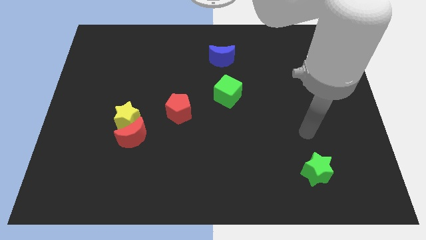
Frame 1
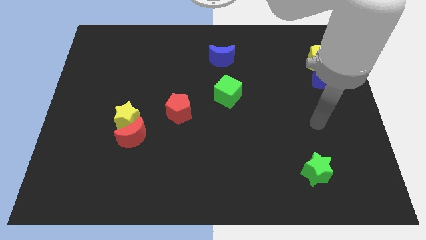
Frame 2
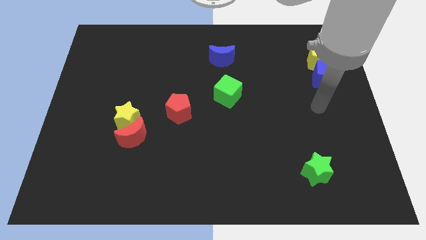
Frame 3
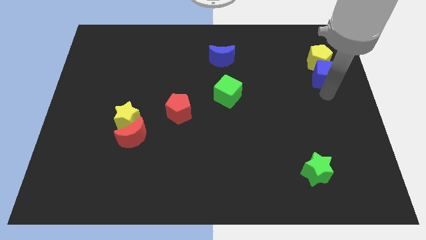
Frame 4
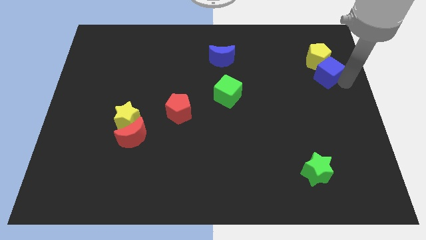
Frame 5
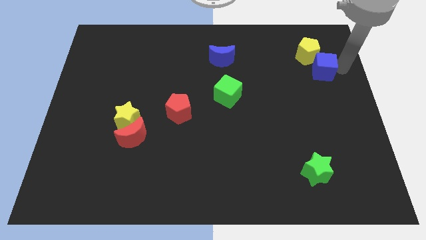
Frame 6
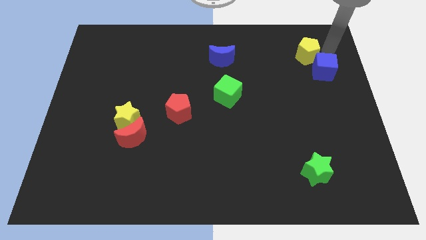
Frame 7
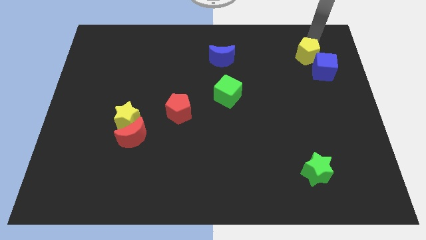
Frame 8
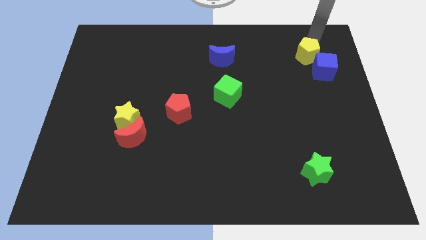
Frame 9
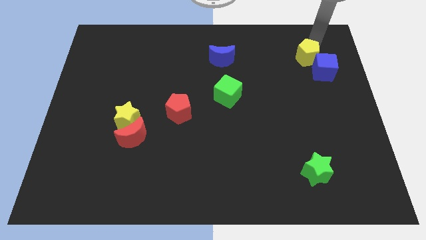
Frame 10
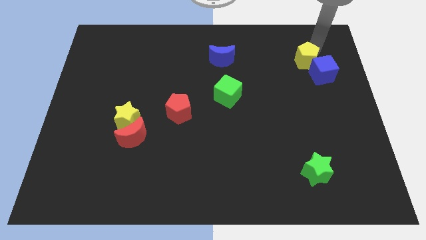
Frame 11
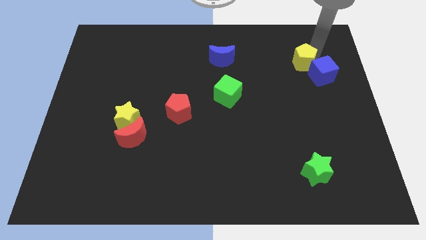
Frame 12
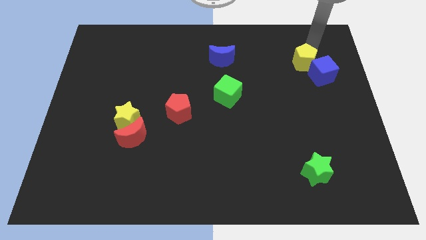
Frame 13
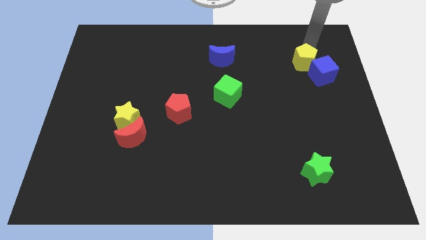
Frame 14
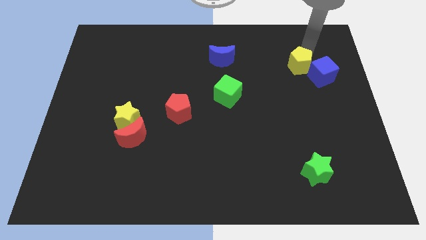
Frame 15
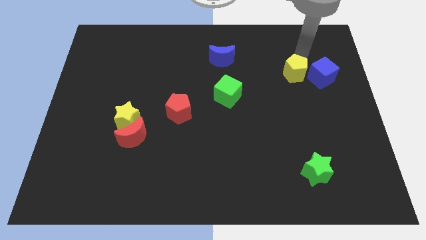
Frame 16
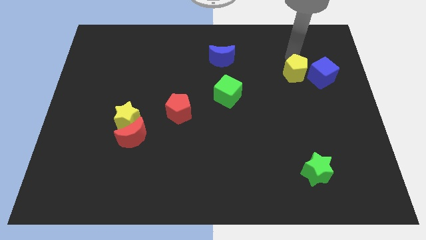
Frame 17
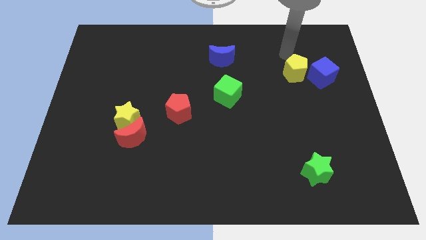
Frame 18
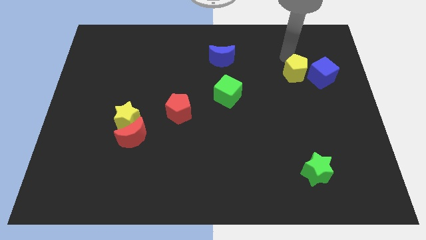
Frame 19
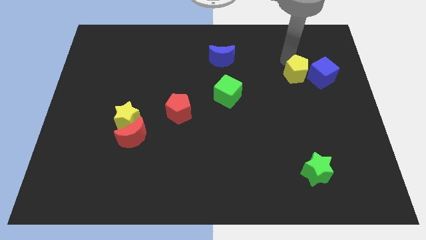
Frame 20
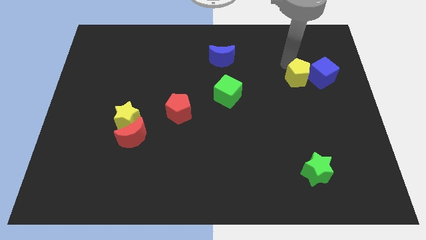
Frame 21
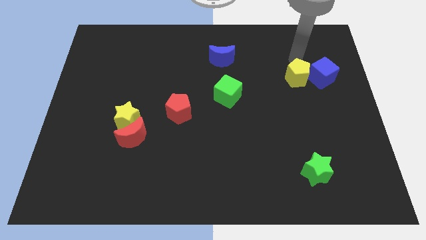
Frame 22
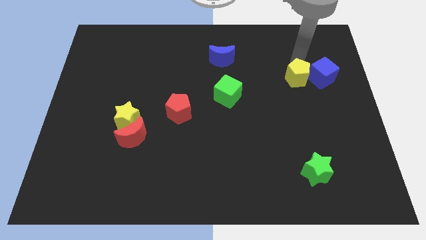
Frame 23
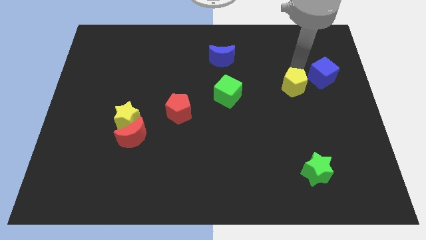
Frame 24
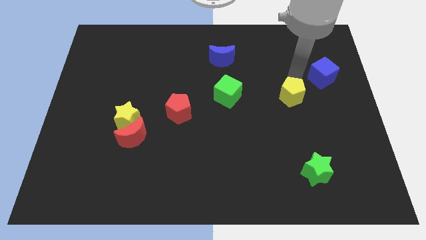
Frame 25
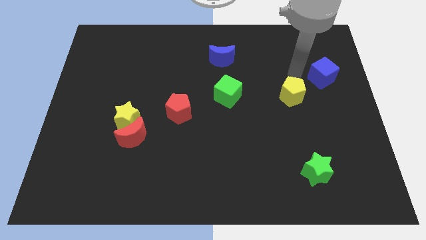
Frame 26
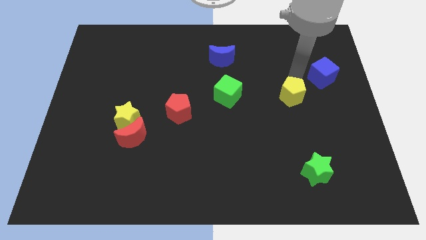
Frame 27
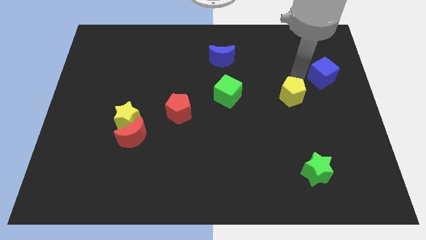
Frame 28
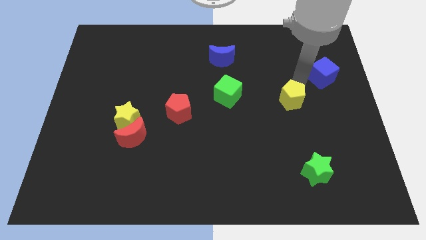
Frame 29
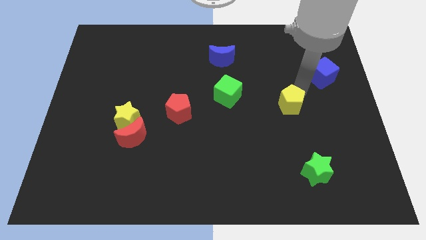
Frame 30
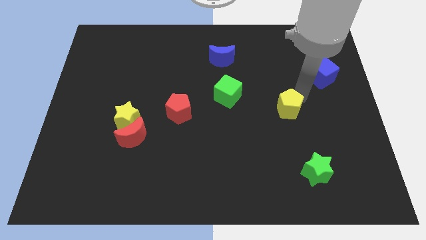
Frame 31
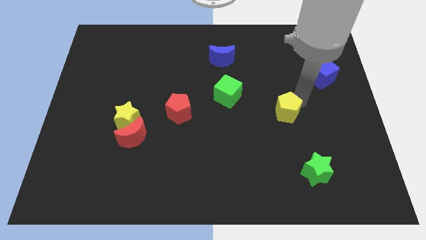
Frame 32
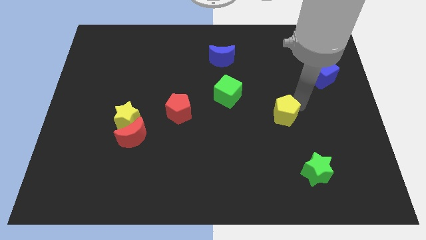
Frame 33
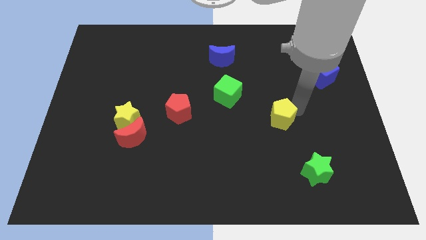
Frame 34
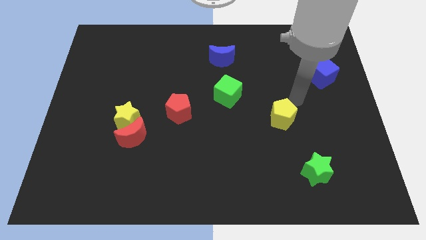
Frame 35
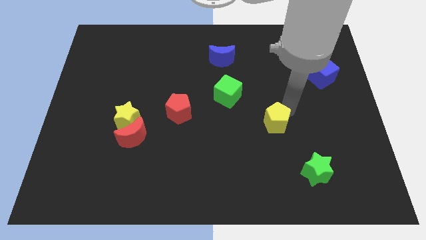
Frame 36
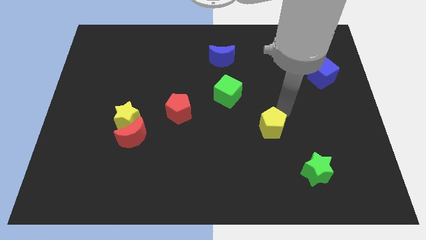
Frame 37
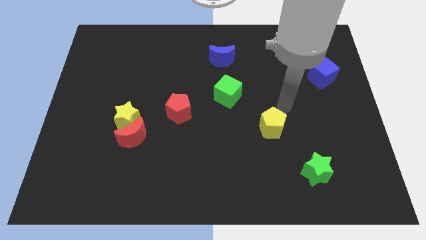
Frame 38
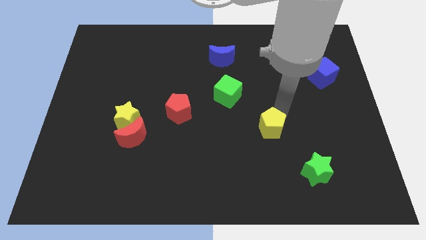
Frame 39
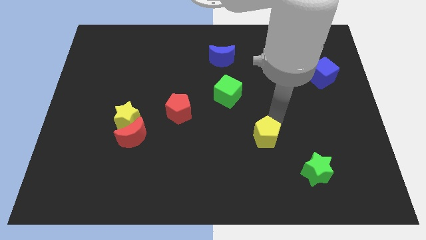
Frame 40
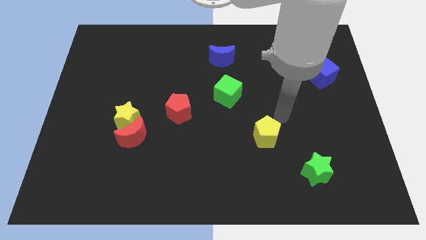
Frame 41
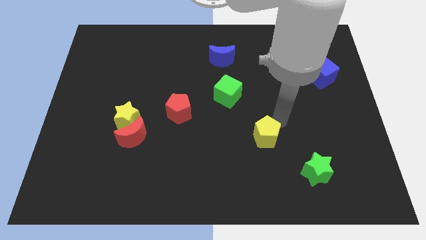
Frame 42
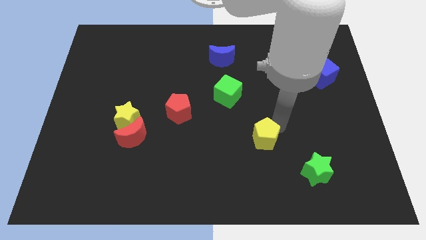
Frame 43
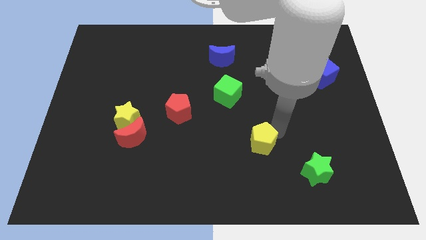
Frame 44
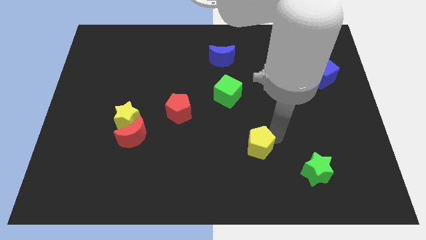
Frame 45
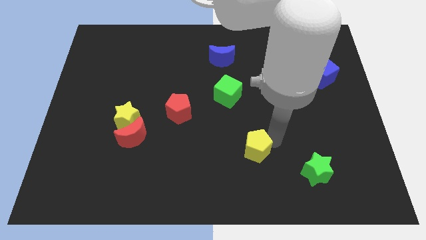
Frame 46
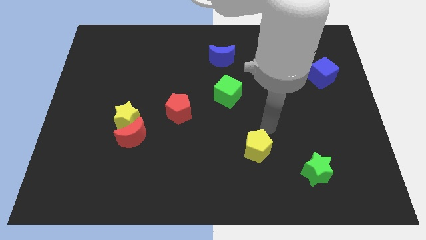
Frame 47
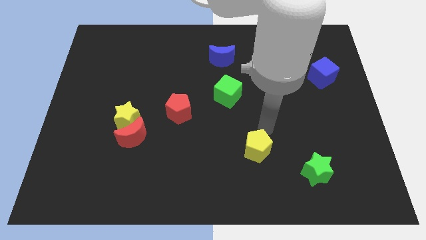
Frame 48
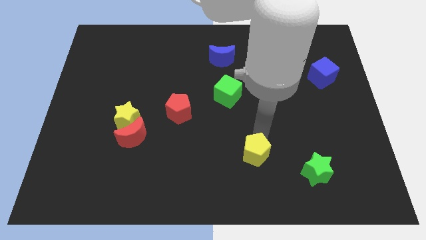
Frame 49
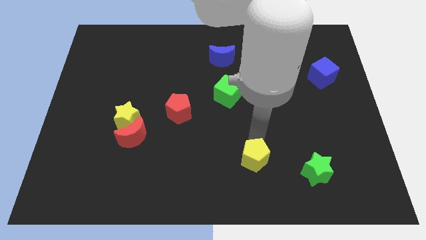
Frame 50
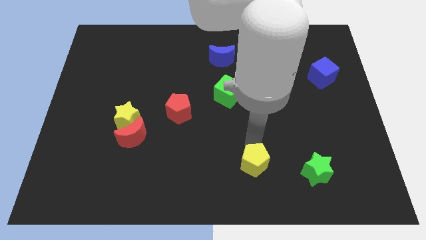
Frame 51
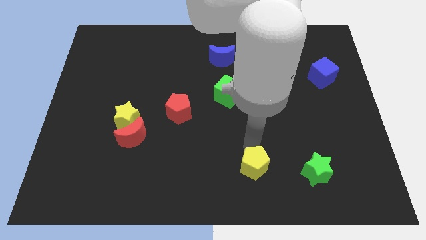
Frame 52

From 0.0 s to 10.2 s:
put the yellow pentagon to the bottom

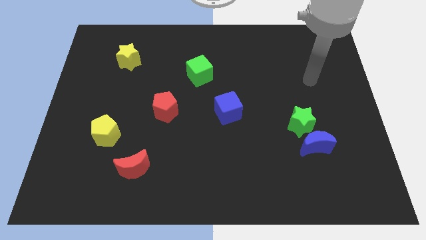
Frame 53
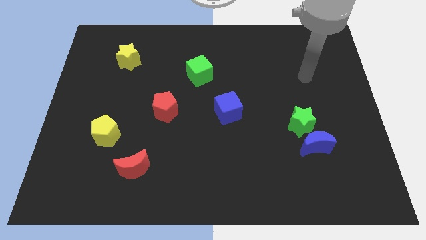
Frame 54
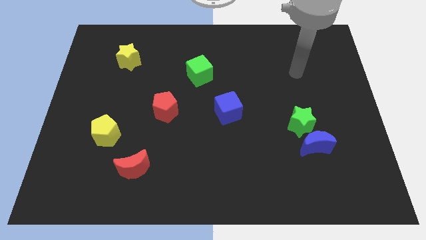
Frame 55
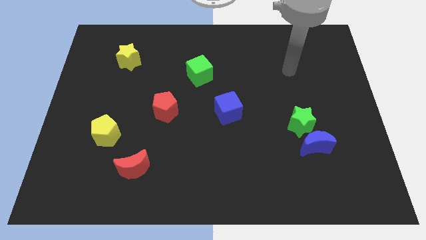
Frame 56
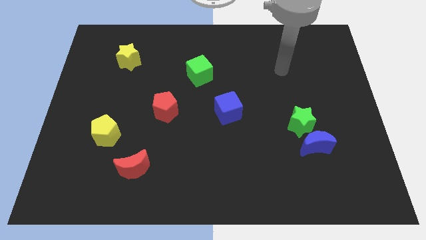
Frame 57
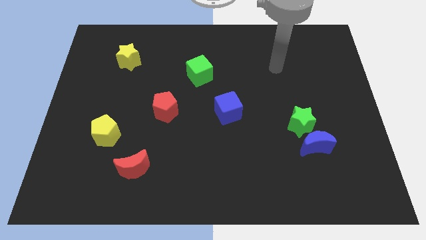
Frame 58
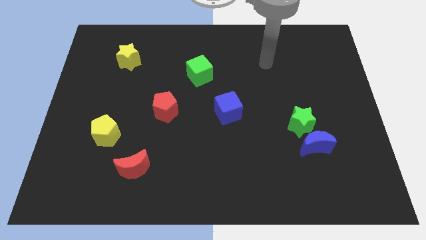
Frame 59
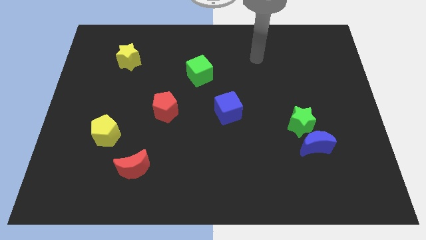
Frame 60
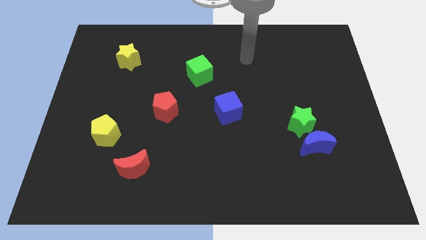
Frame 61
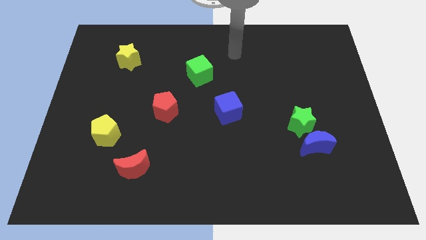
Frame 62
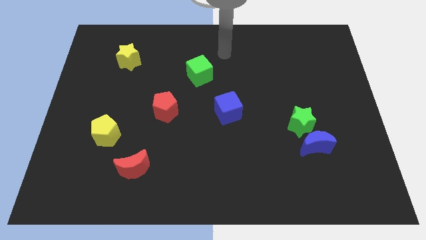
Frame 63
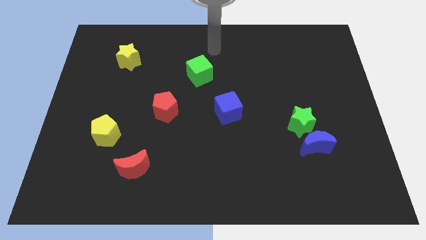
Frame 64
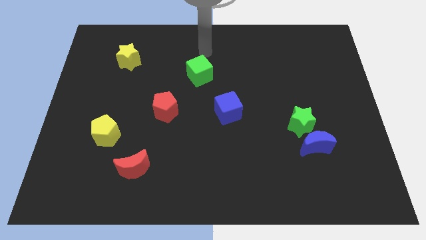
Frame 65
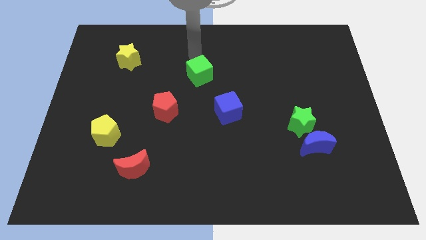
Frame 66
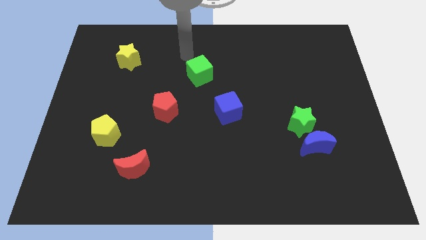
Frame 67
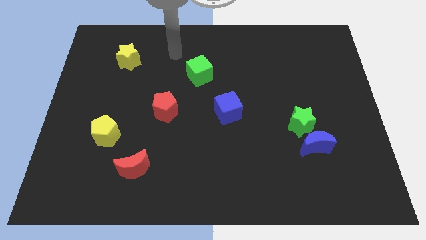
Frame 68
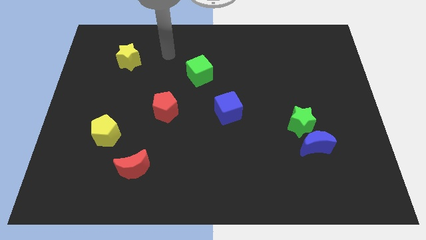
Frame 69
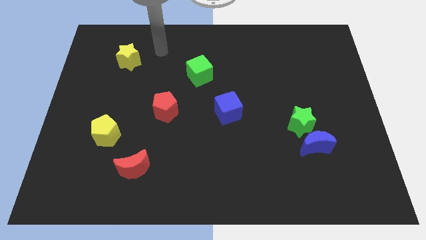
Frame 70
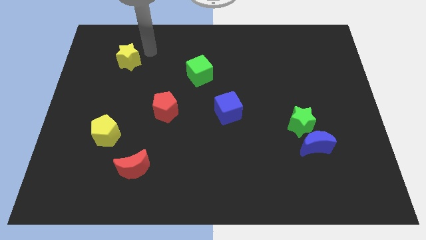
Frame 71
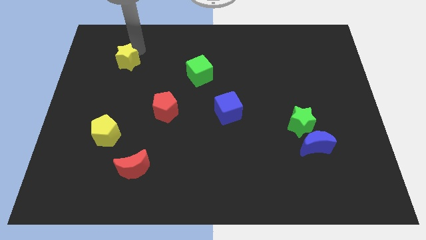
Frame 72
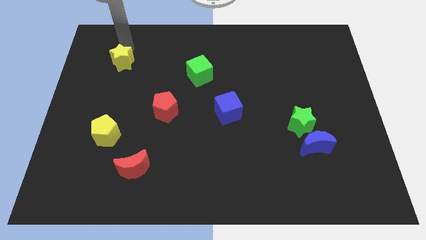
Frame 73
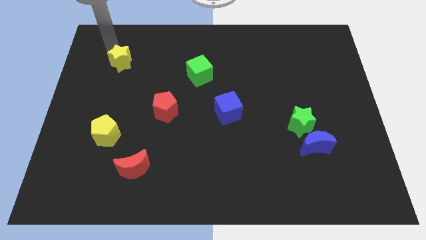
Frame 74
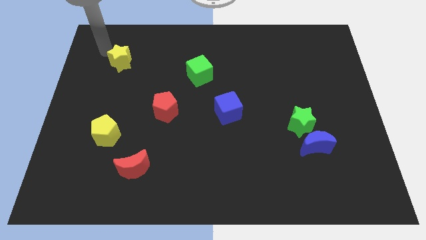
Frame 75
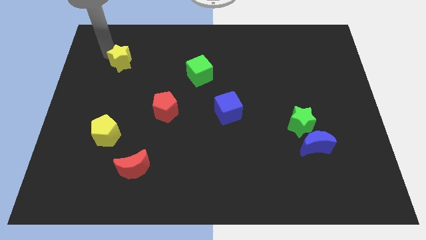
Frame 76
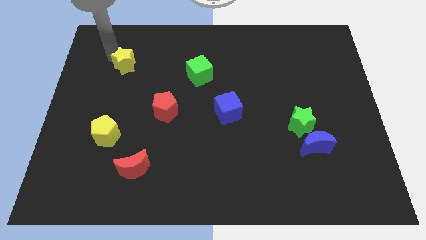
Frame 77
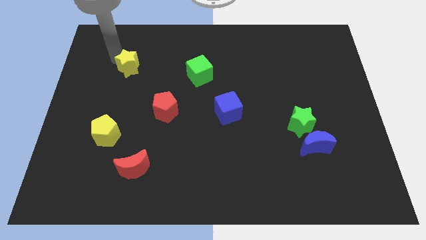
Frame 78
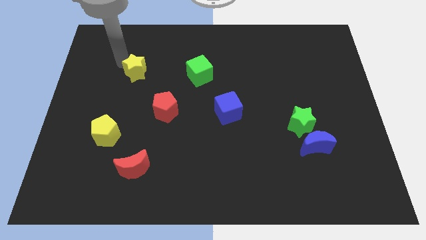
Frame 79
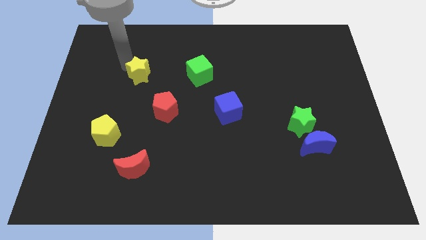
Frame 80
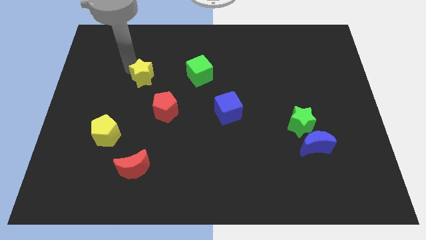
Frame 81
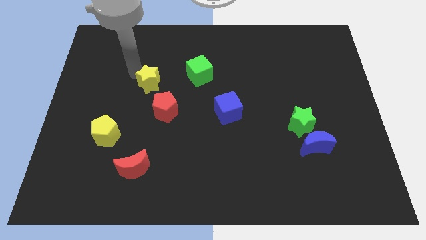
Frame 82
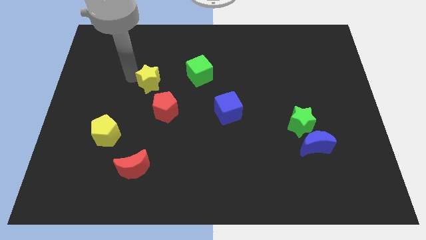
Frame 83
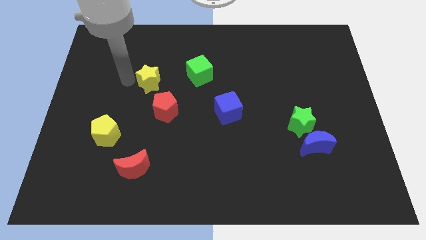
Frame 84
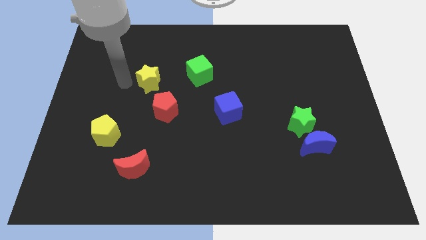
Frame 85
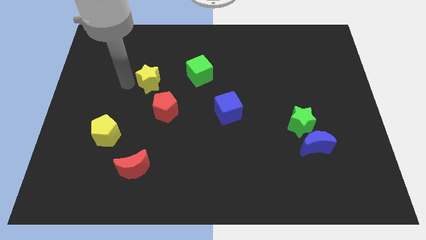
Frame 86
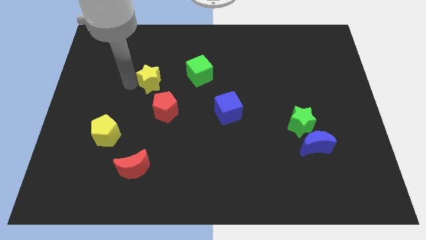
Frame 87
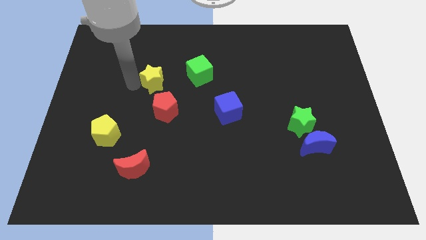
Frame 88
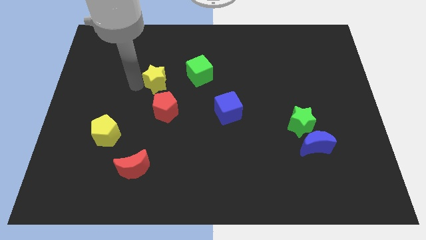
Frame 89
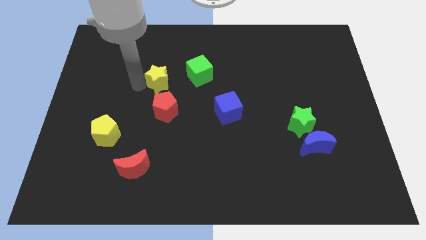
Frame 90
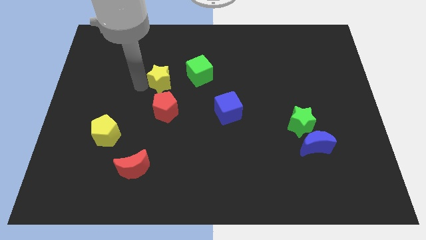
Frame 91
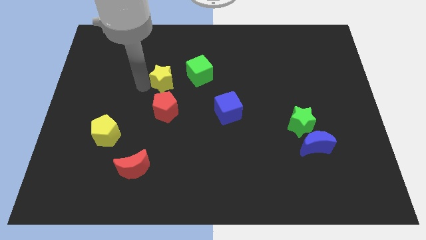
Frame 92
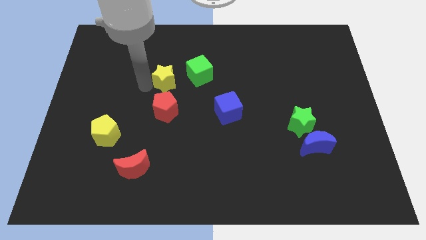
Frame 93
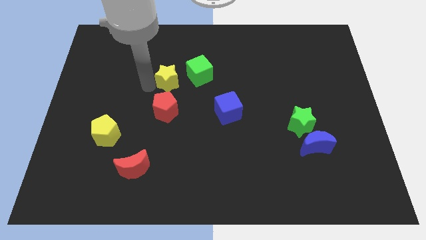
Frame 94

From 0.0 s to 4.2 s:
slide the yellow star to the center
